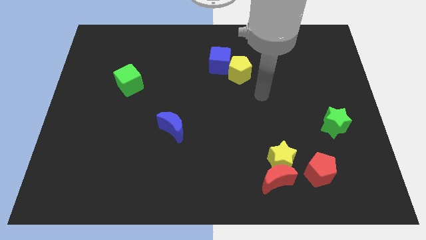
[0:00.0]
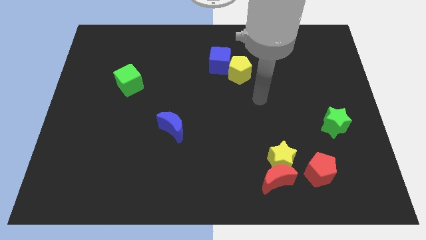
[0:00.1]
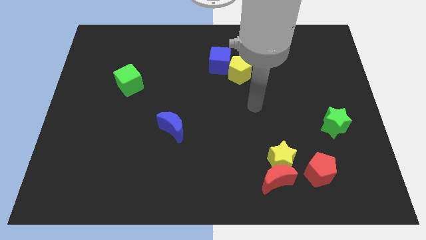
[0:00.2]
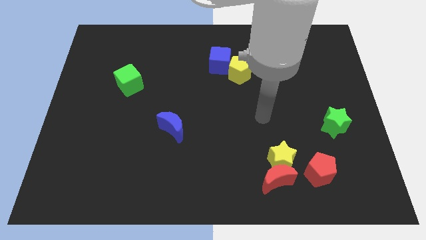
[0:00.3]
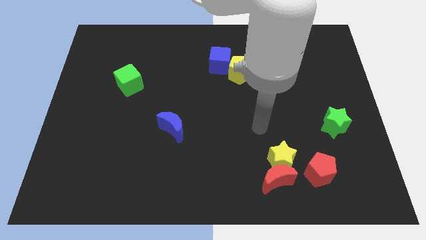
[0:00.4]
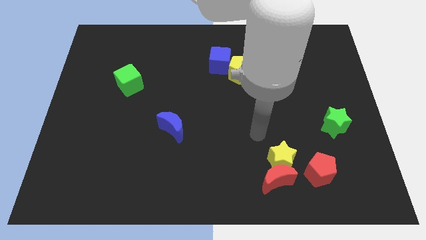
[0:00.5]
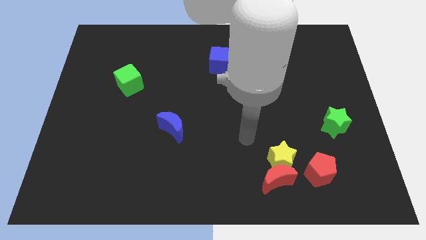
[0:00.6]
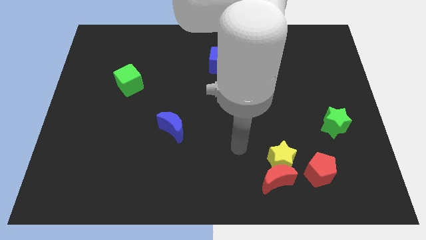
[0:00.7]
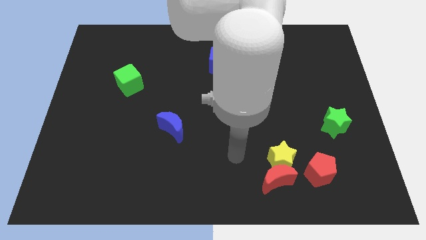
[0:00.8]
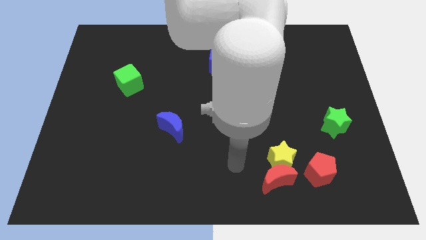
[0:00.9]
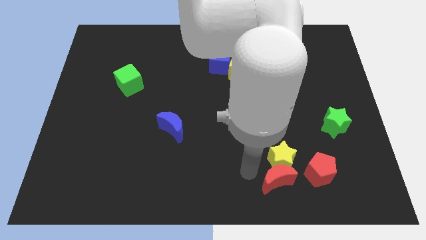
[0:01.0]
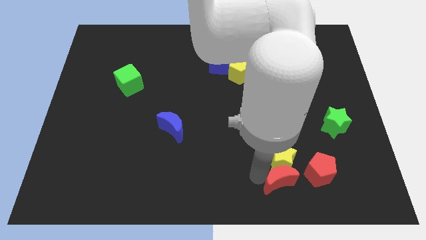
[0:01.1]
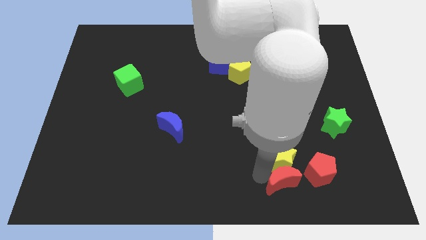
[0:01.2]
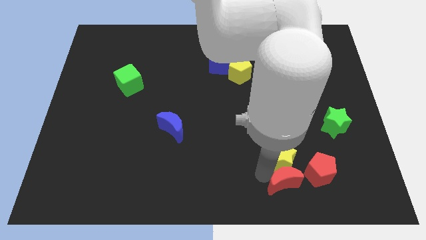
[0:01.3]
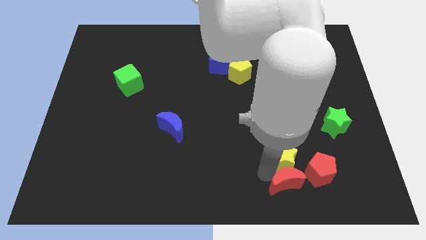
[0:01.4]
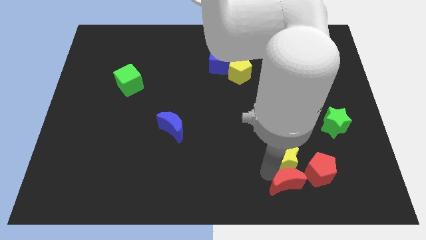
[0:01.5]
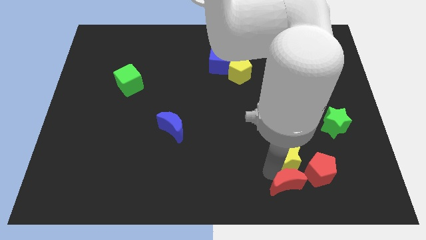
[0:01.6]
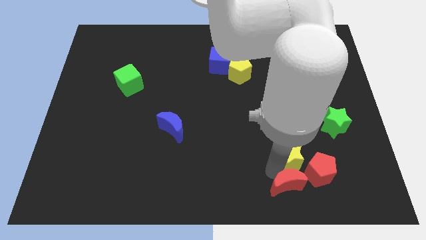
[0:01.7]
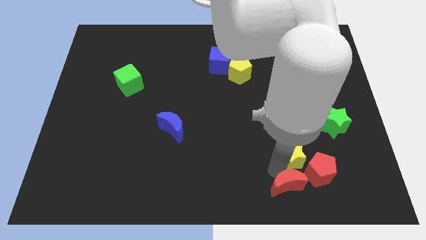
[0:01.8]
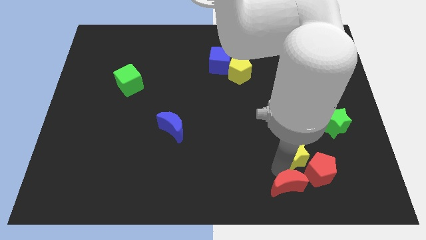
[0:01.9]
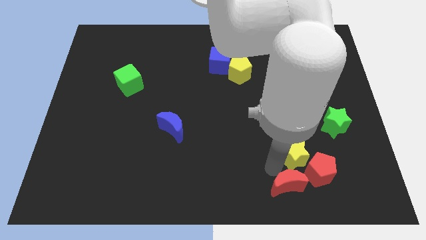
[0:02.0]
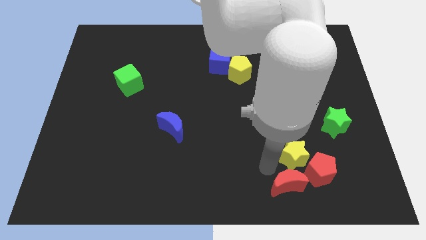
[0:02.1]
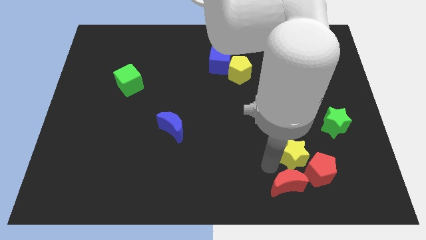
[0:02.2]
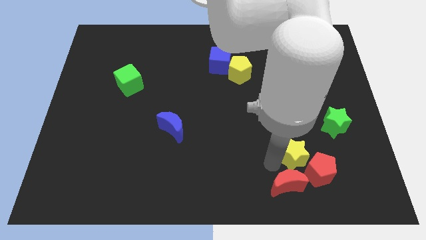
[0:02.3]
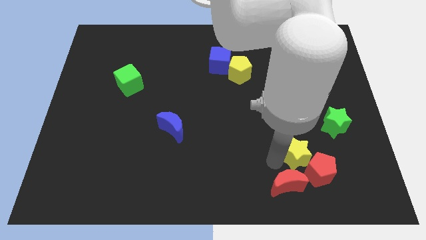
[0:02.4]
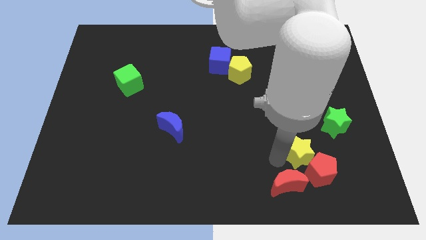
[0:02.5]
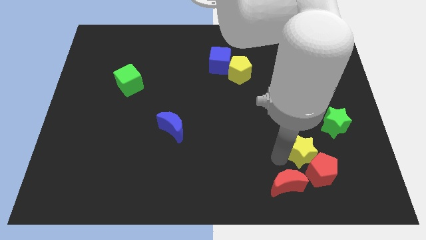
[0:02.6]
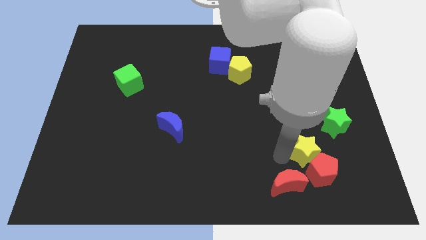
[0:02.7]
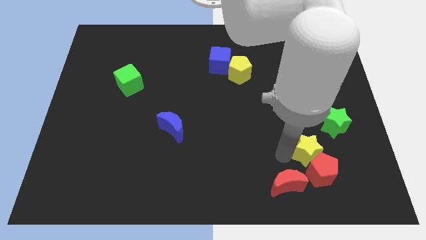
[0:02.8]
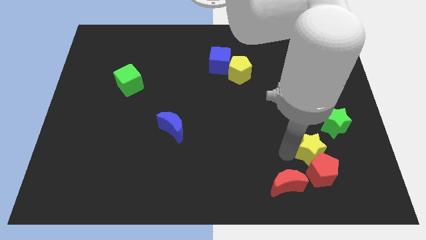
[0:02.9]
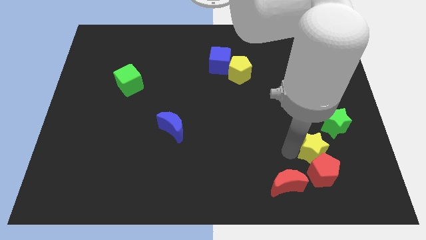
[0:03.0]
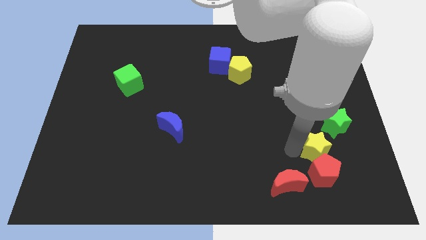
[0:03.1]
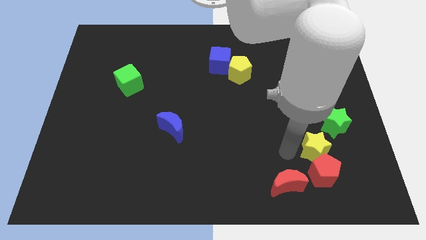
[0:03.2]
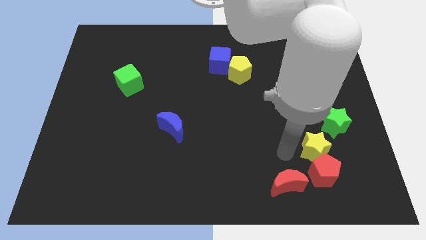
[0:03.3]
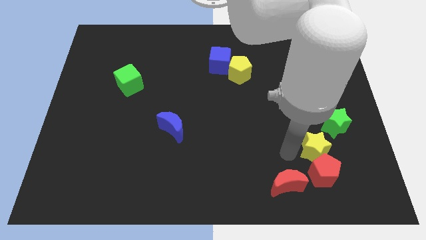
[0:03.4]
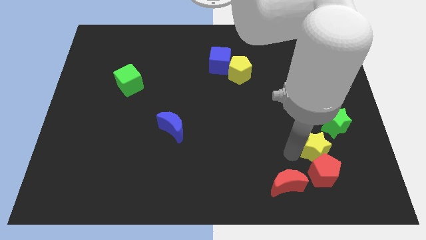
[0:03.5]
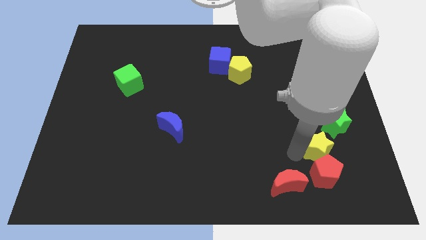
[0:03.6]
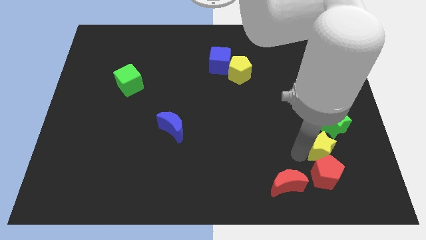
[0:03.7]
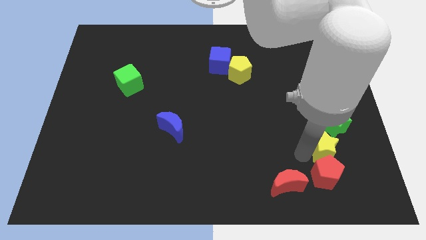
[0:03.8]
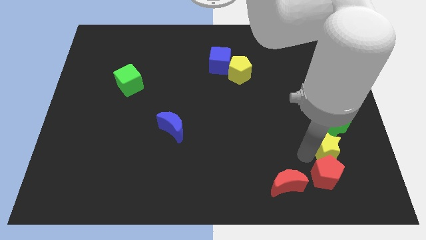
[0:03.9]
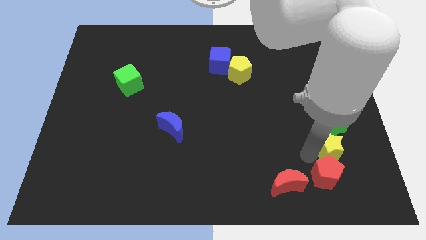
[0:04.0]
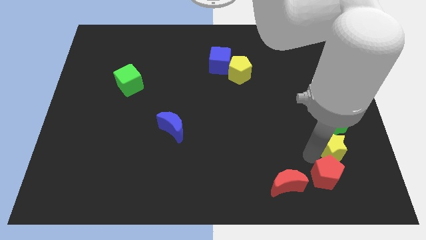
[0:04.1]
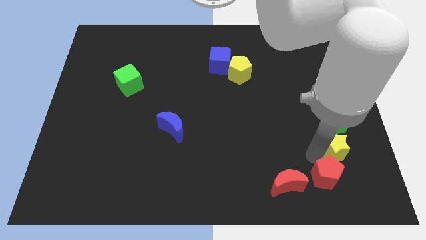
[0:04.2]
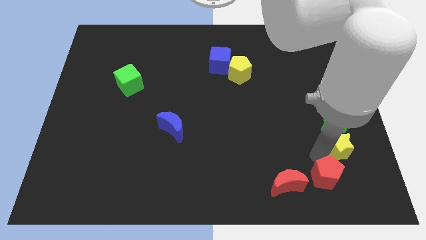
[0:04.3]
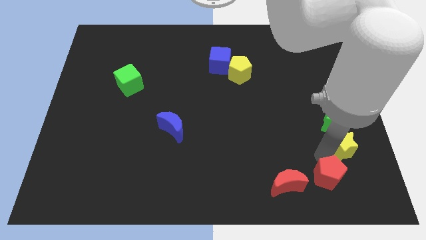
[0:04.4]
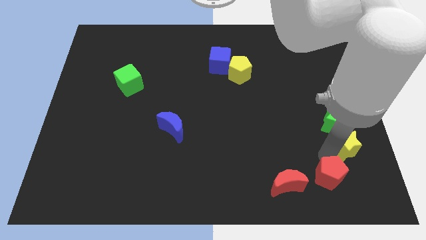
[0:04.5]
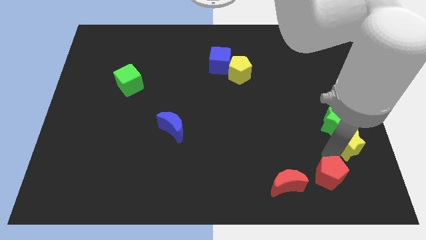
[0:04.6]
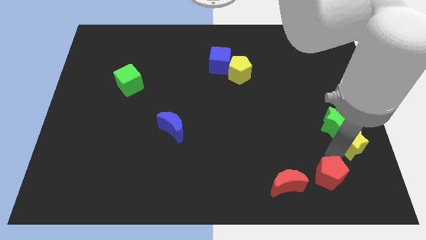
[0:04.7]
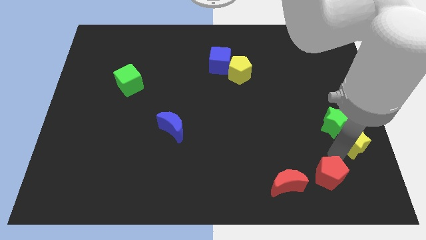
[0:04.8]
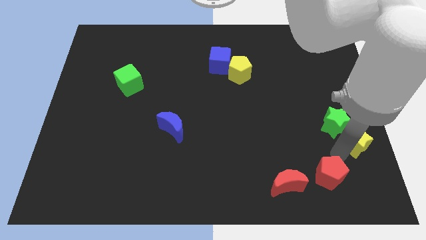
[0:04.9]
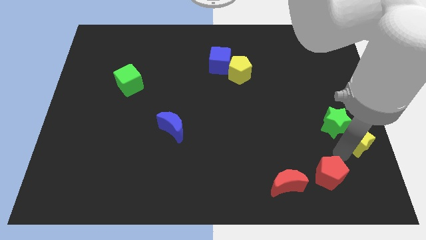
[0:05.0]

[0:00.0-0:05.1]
slide the yellow star to the center right

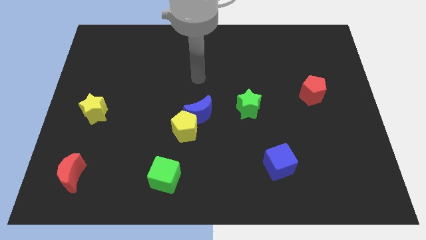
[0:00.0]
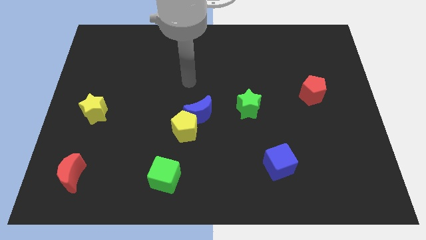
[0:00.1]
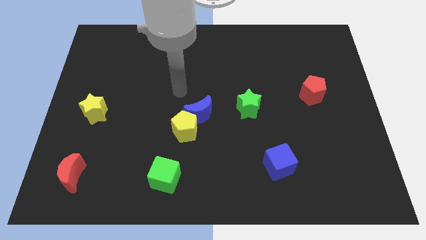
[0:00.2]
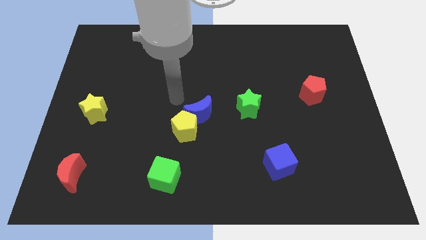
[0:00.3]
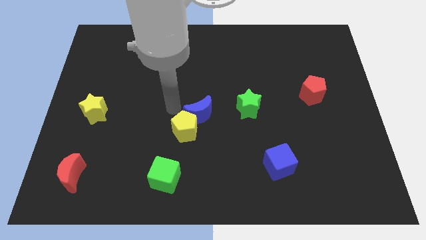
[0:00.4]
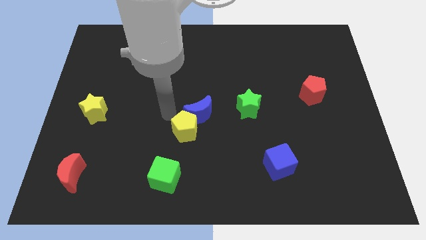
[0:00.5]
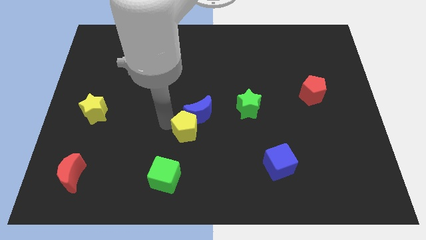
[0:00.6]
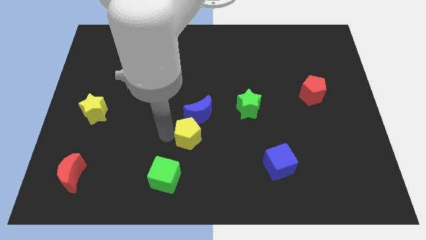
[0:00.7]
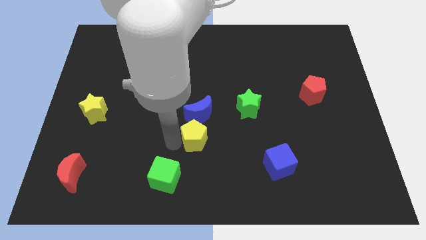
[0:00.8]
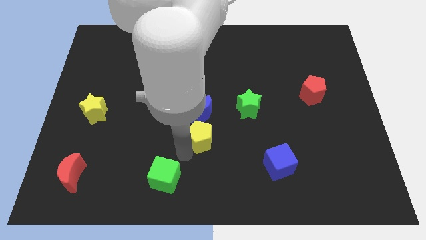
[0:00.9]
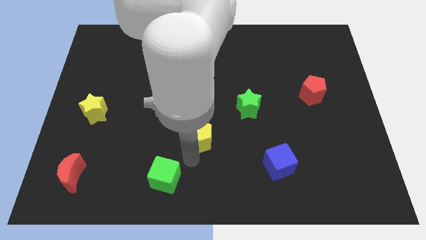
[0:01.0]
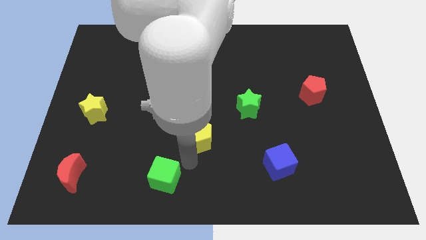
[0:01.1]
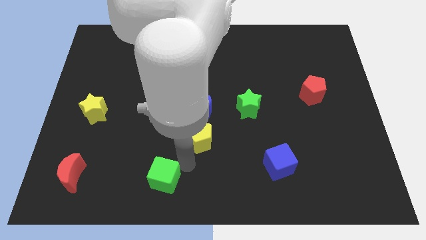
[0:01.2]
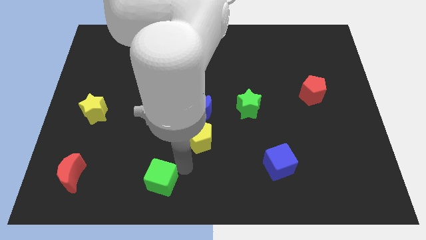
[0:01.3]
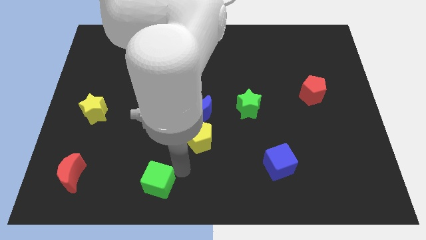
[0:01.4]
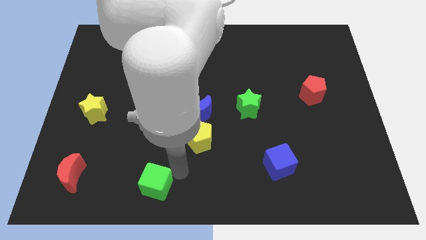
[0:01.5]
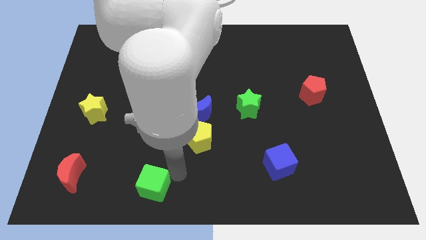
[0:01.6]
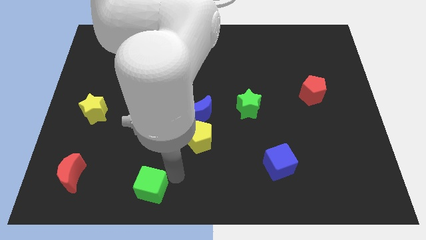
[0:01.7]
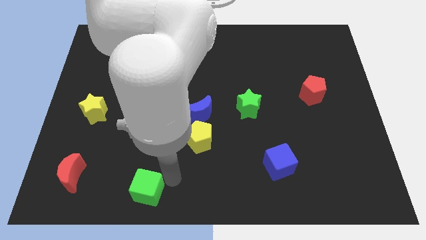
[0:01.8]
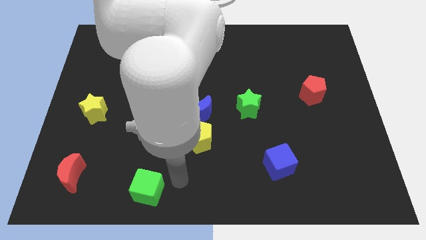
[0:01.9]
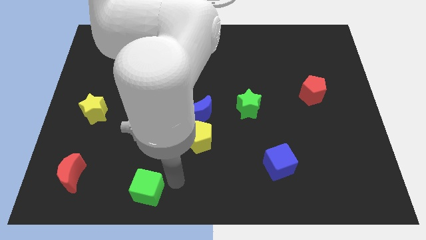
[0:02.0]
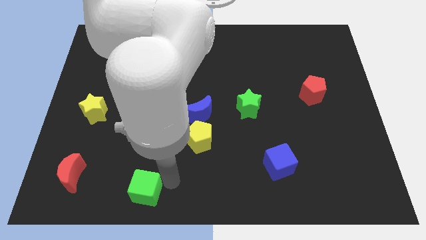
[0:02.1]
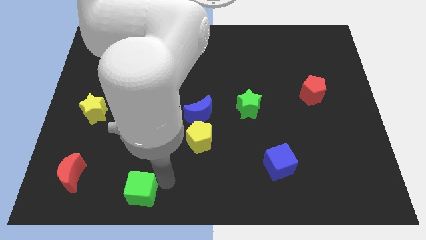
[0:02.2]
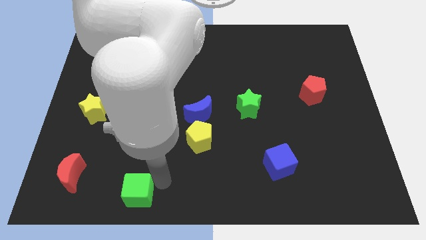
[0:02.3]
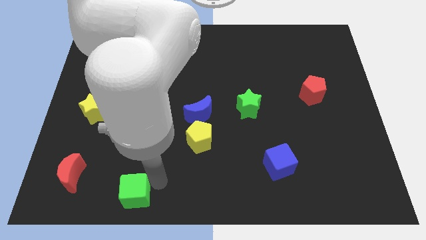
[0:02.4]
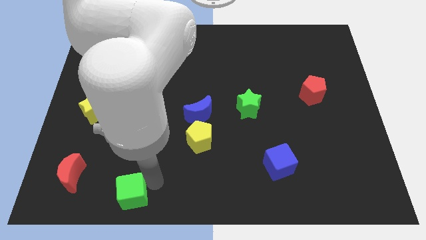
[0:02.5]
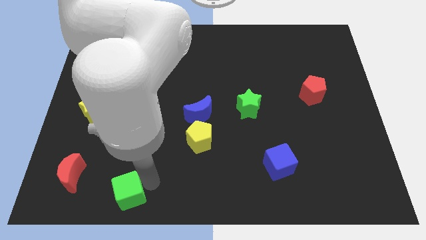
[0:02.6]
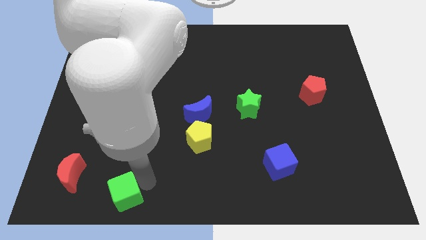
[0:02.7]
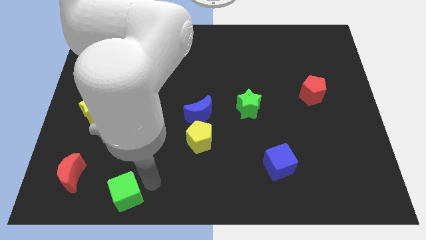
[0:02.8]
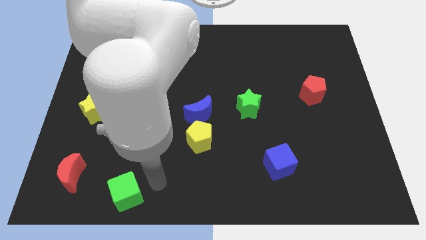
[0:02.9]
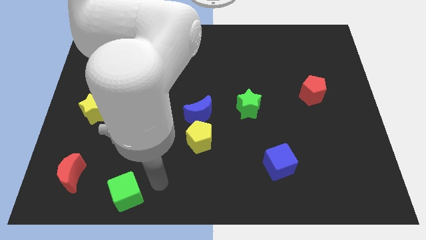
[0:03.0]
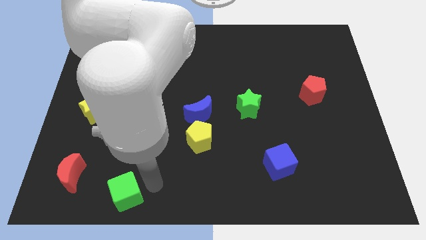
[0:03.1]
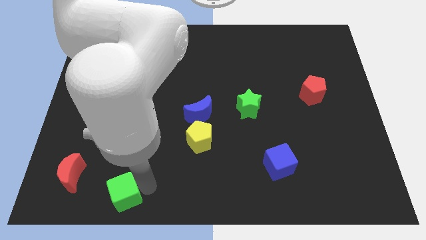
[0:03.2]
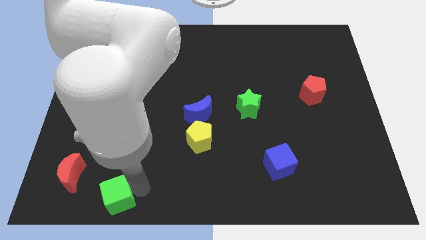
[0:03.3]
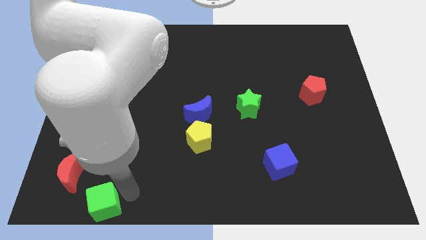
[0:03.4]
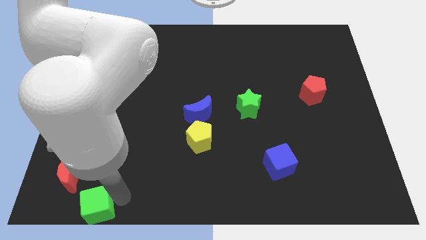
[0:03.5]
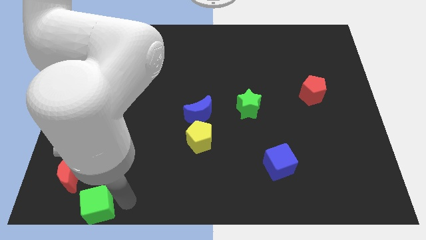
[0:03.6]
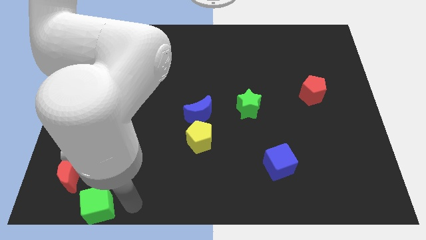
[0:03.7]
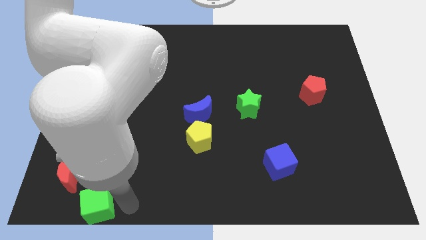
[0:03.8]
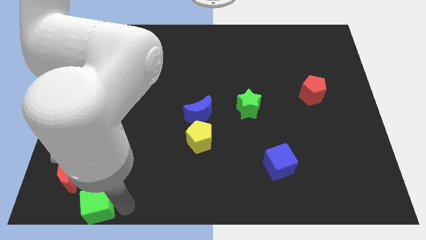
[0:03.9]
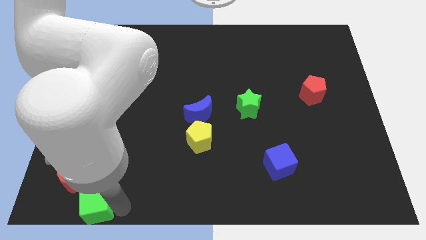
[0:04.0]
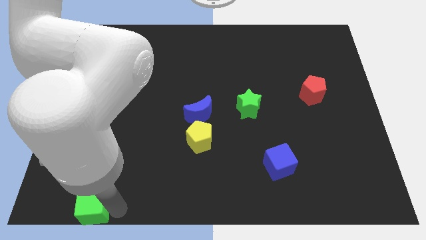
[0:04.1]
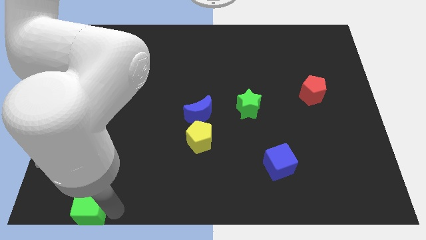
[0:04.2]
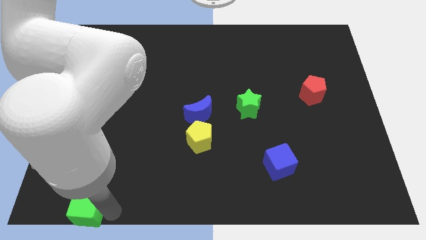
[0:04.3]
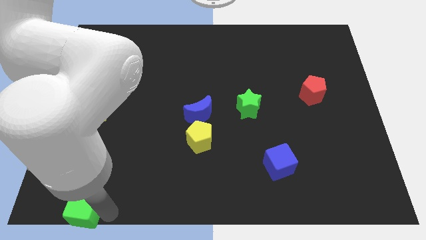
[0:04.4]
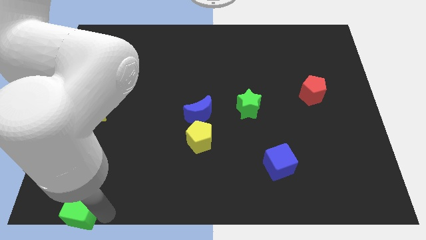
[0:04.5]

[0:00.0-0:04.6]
move the green cube to the bottom left
